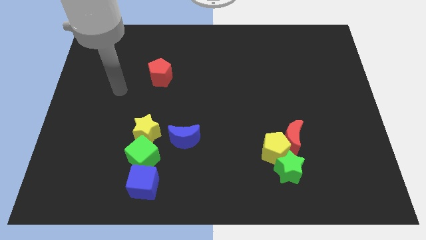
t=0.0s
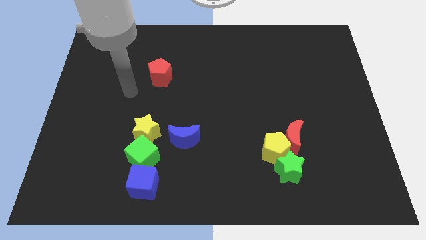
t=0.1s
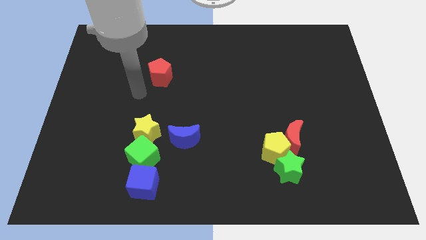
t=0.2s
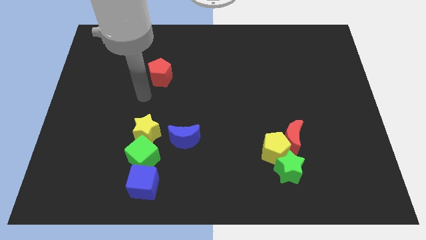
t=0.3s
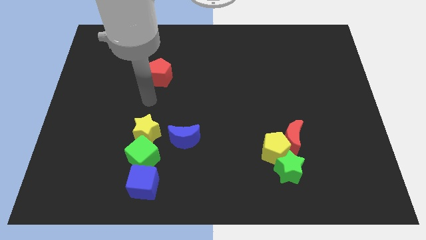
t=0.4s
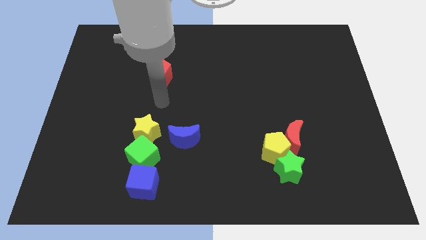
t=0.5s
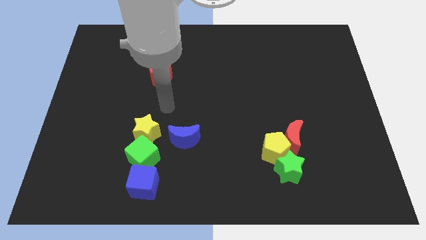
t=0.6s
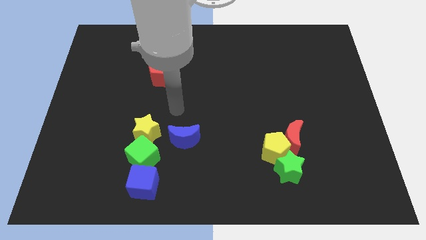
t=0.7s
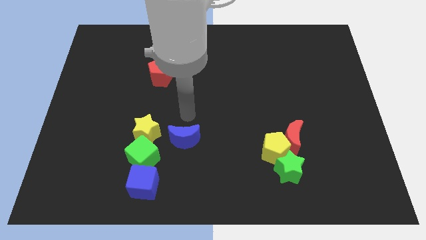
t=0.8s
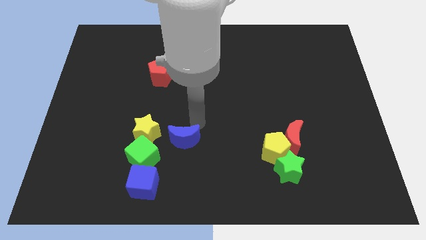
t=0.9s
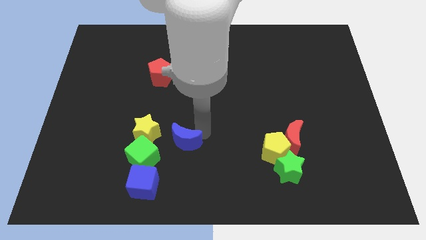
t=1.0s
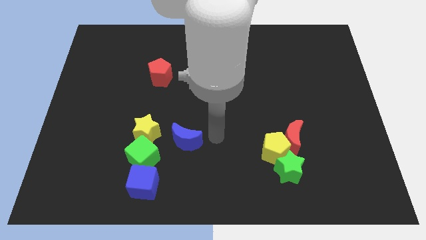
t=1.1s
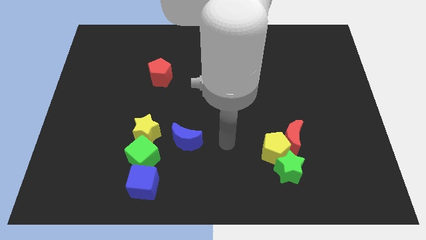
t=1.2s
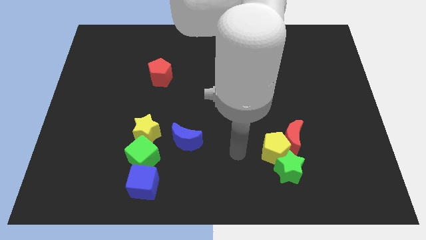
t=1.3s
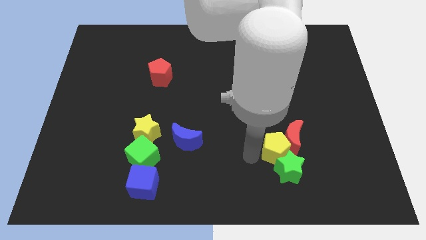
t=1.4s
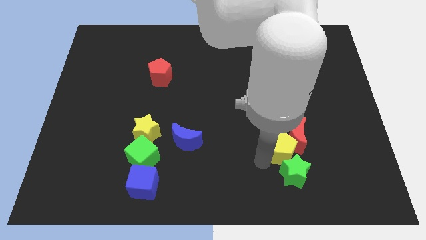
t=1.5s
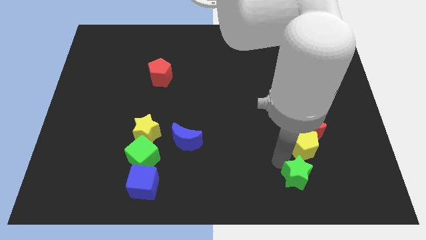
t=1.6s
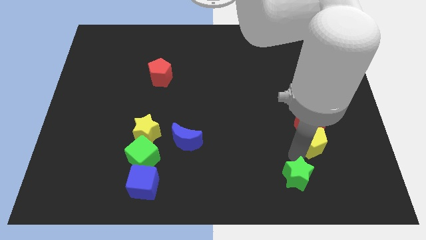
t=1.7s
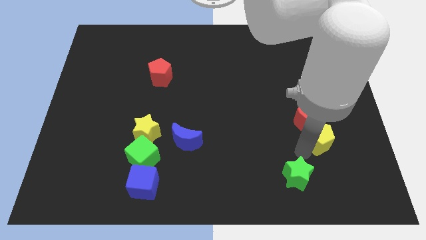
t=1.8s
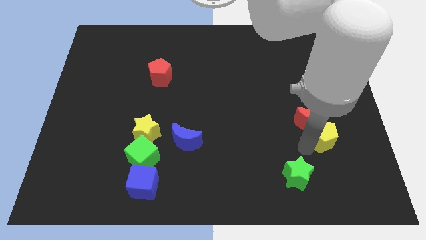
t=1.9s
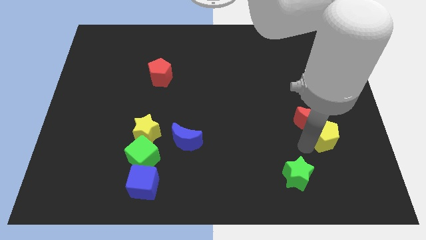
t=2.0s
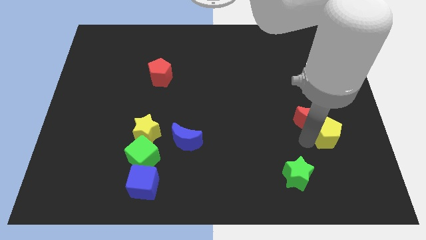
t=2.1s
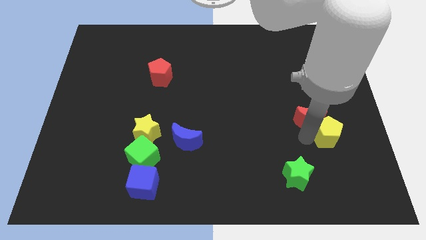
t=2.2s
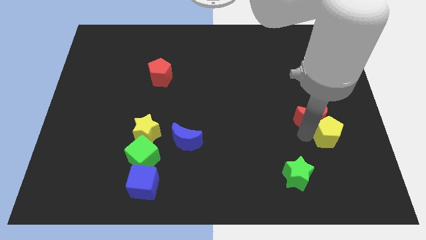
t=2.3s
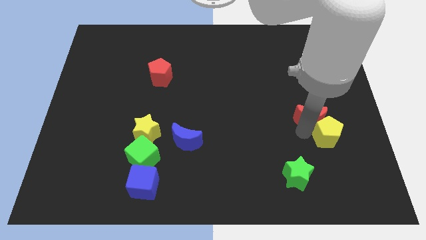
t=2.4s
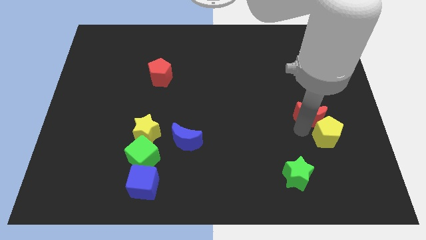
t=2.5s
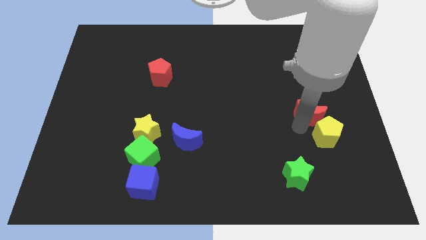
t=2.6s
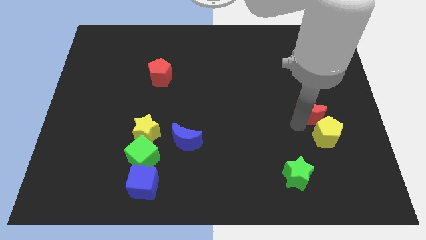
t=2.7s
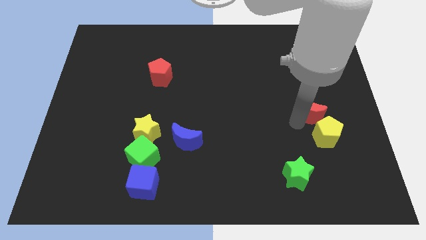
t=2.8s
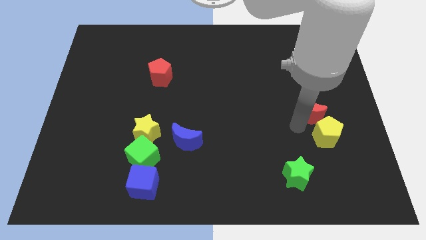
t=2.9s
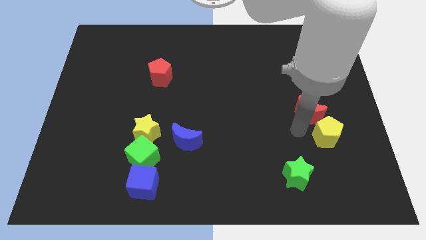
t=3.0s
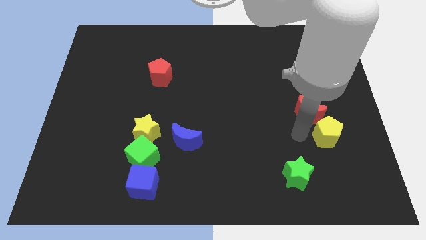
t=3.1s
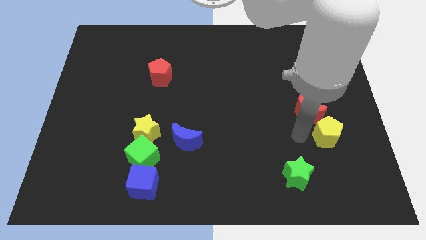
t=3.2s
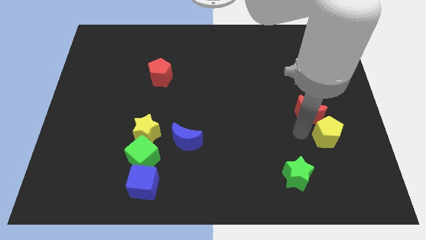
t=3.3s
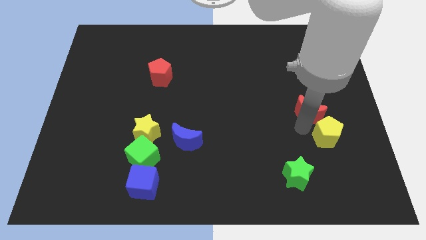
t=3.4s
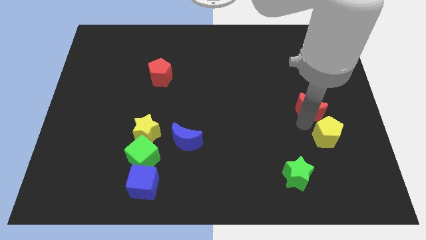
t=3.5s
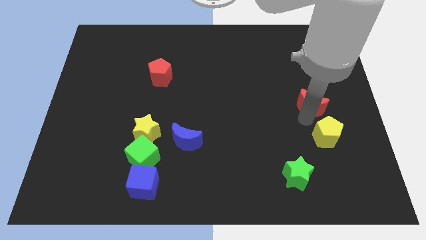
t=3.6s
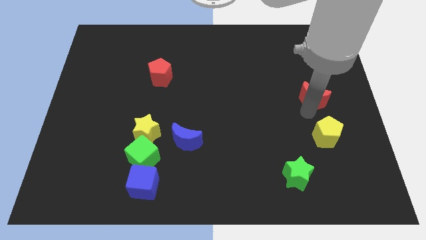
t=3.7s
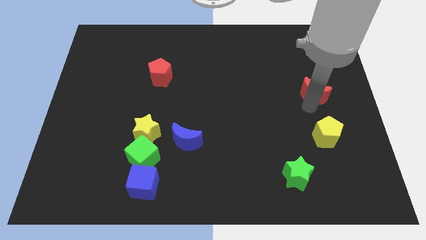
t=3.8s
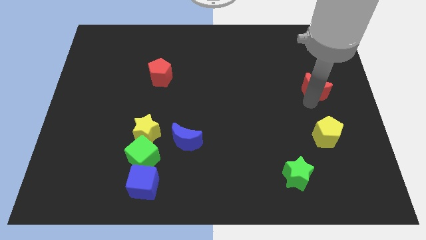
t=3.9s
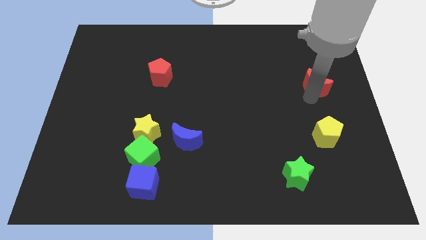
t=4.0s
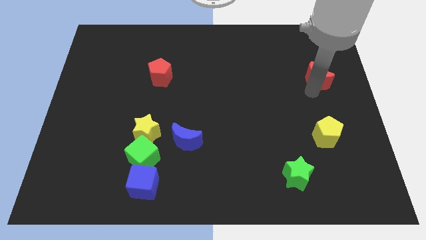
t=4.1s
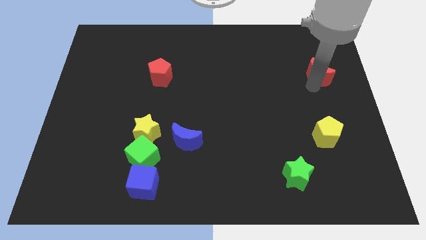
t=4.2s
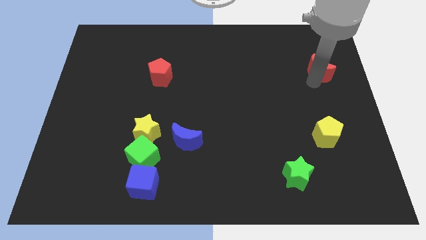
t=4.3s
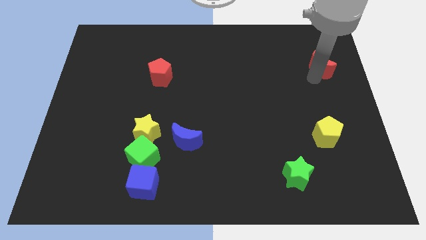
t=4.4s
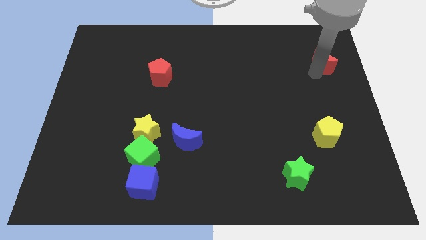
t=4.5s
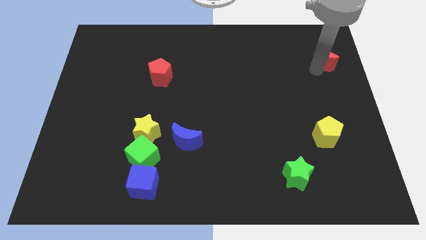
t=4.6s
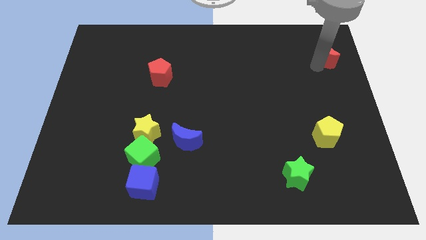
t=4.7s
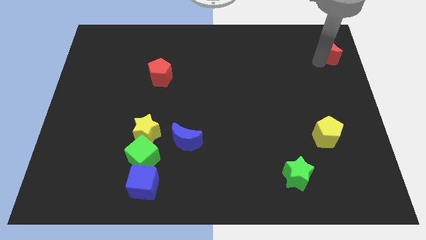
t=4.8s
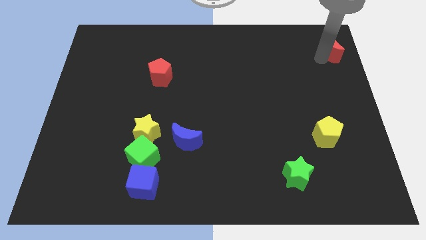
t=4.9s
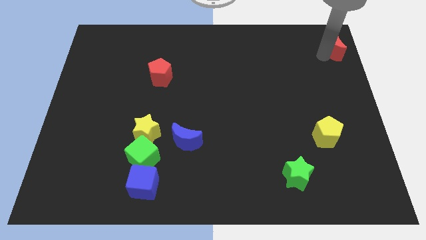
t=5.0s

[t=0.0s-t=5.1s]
slide the red moon to the top right
